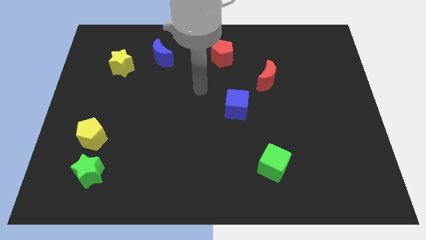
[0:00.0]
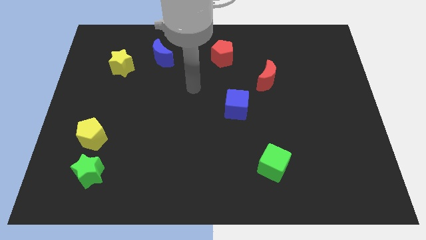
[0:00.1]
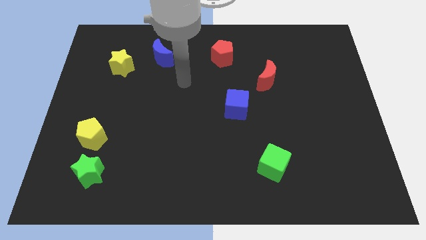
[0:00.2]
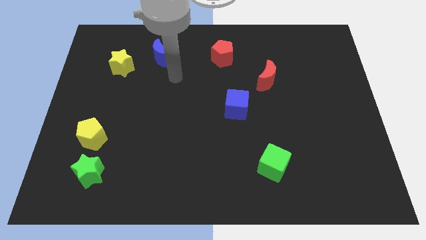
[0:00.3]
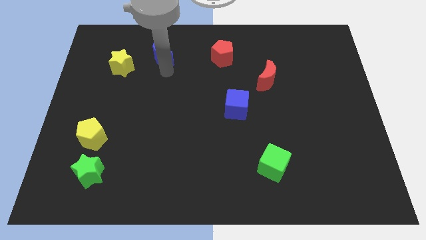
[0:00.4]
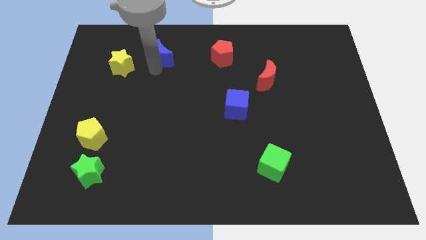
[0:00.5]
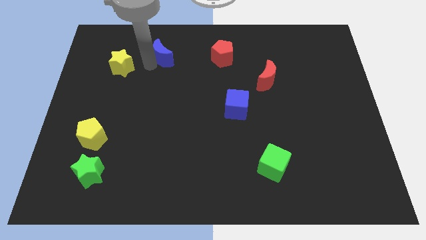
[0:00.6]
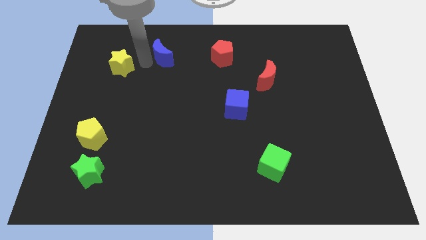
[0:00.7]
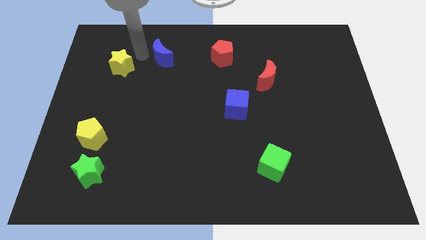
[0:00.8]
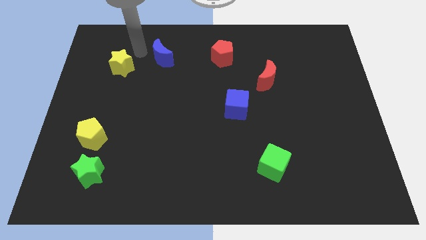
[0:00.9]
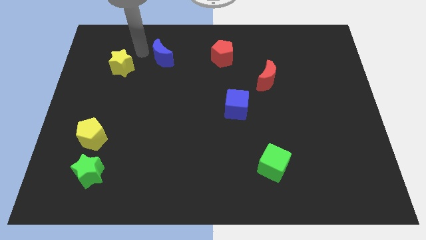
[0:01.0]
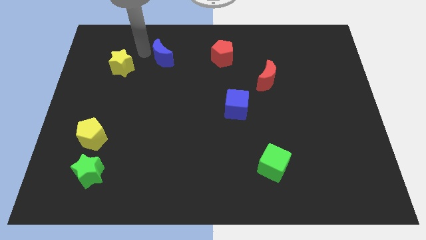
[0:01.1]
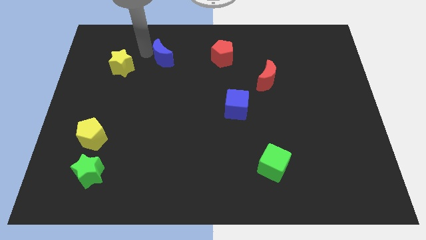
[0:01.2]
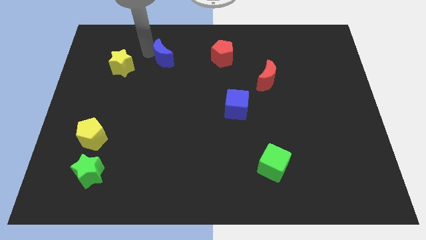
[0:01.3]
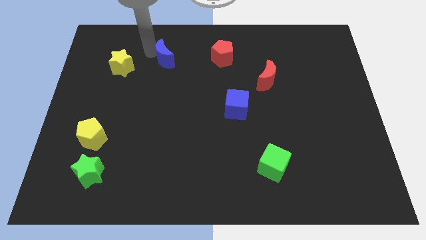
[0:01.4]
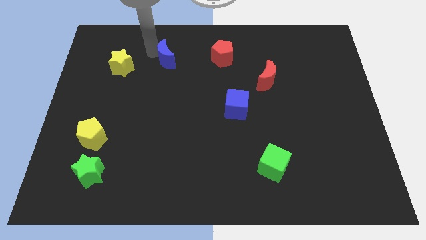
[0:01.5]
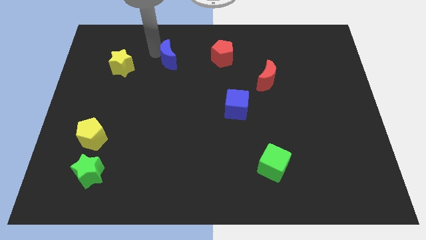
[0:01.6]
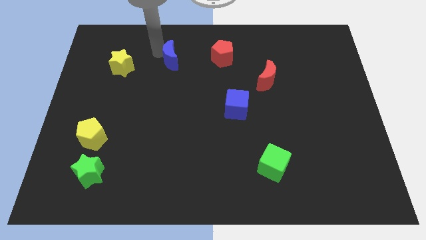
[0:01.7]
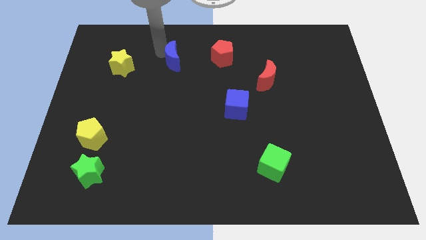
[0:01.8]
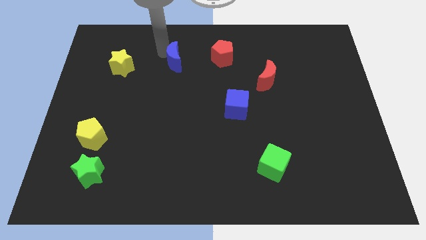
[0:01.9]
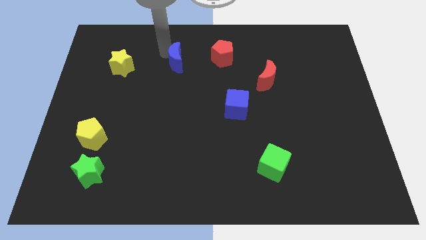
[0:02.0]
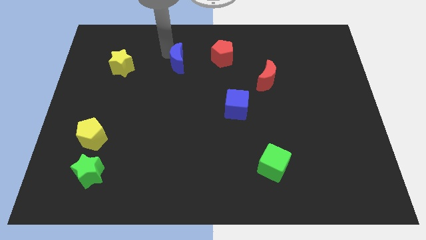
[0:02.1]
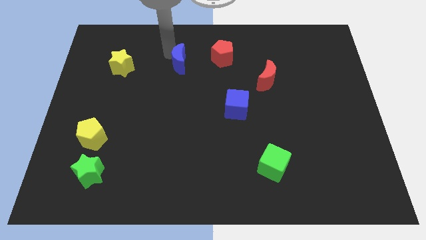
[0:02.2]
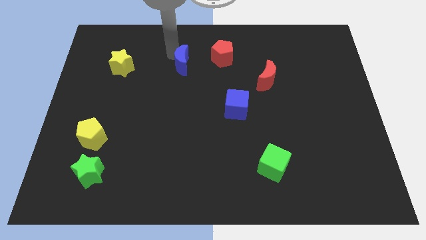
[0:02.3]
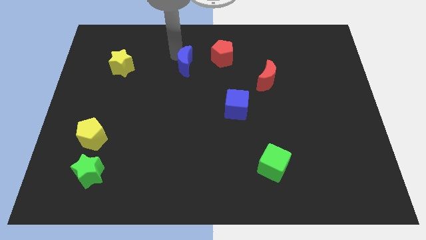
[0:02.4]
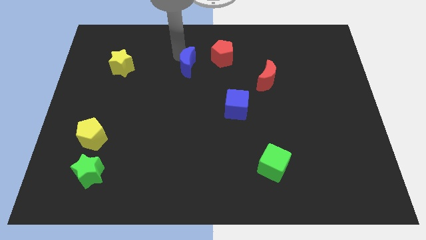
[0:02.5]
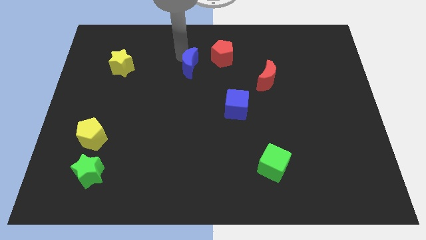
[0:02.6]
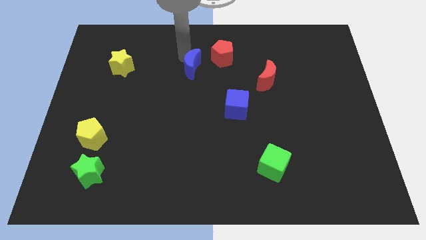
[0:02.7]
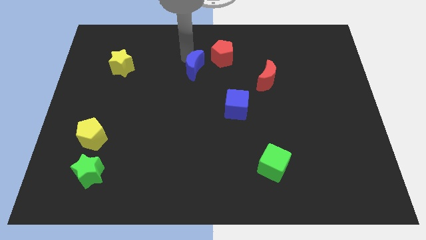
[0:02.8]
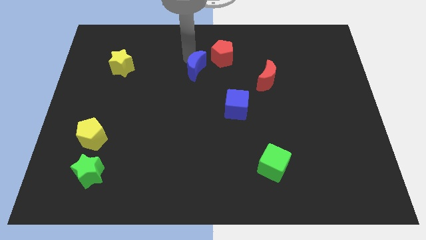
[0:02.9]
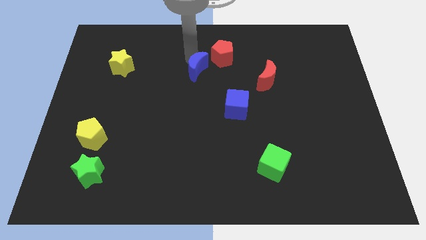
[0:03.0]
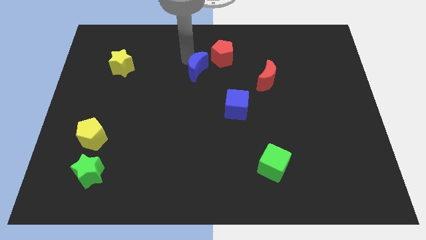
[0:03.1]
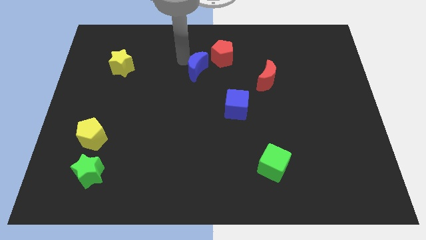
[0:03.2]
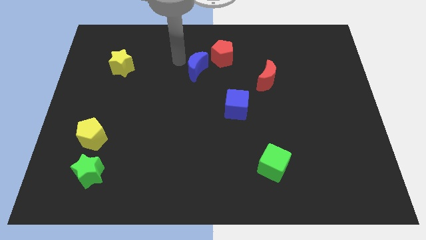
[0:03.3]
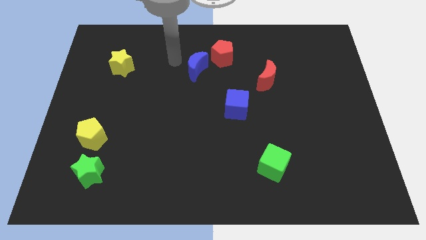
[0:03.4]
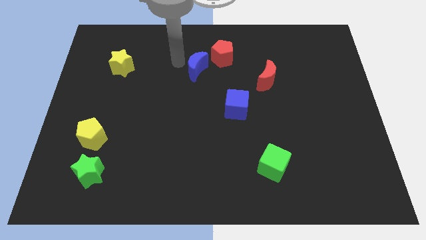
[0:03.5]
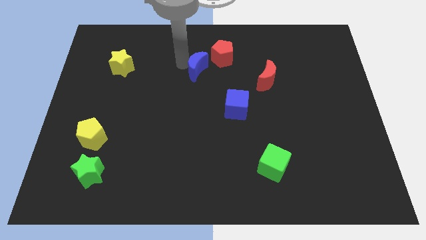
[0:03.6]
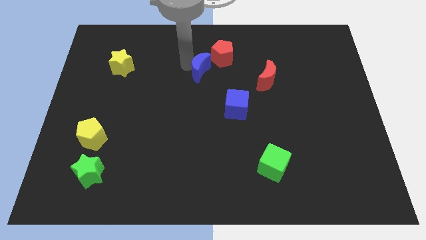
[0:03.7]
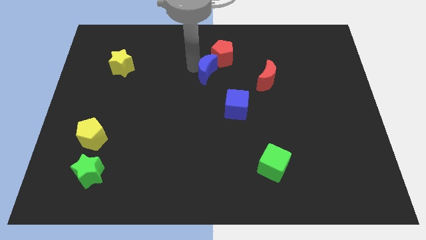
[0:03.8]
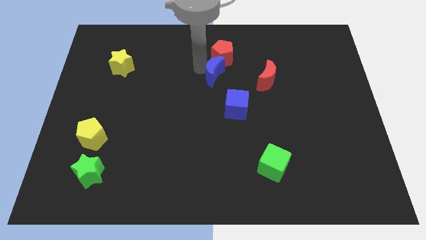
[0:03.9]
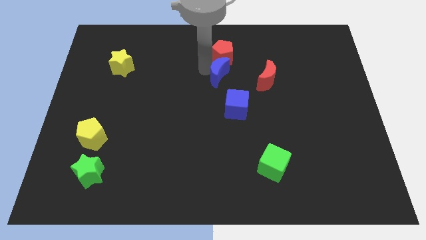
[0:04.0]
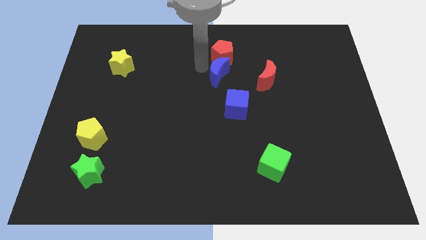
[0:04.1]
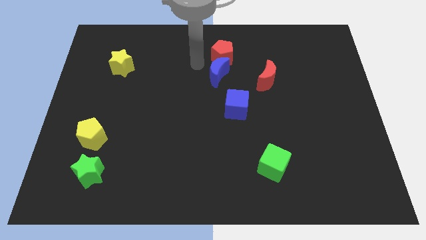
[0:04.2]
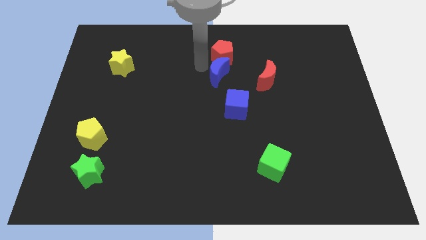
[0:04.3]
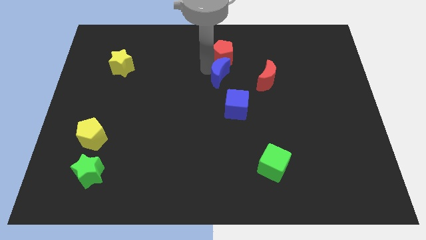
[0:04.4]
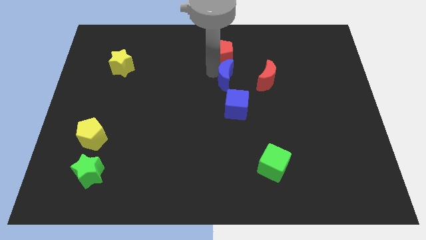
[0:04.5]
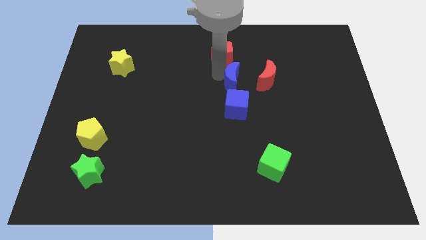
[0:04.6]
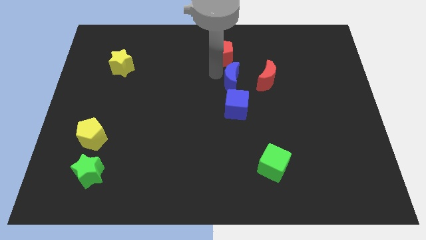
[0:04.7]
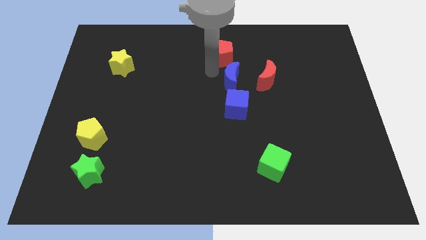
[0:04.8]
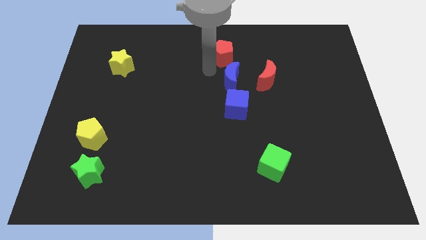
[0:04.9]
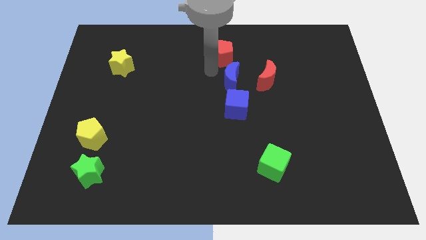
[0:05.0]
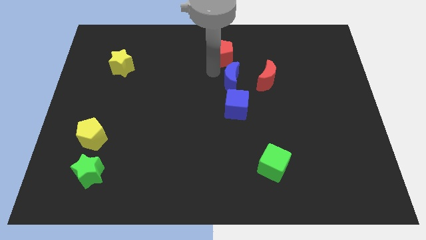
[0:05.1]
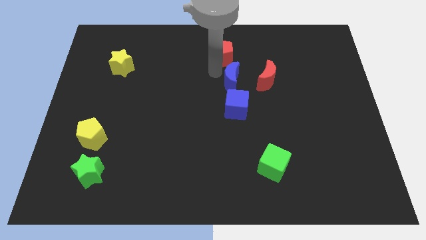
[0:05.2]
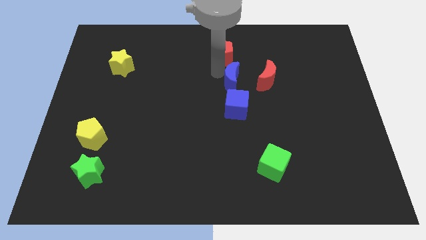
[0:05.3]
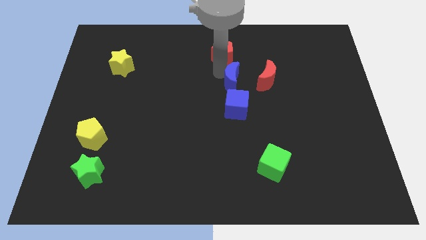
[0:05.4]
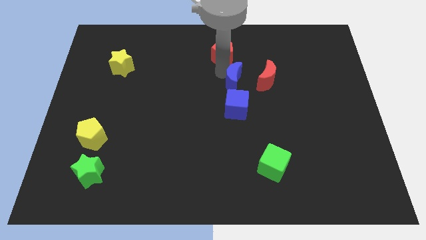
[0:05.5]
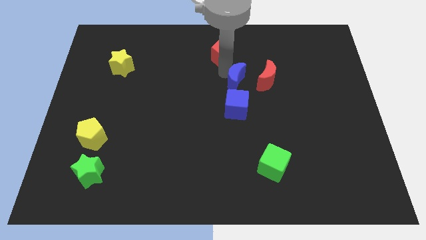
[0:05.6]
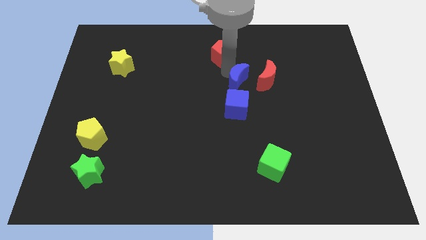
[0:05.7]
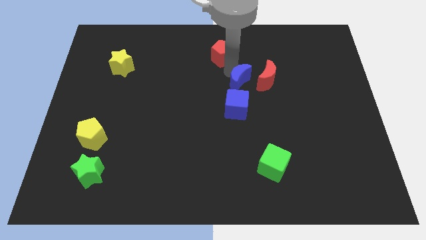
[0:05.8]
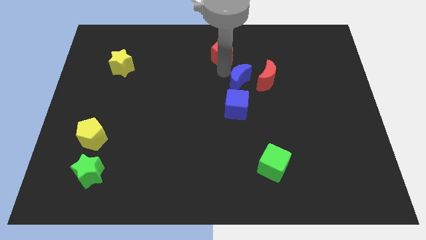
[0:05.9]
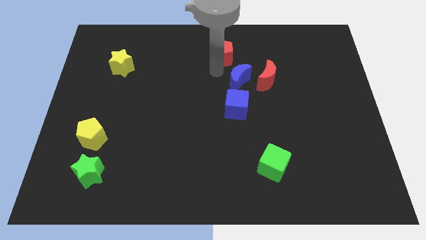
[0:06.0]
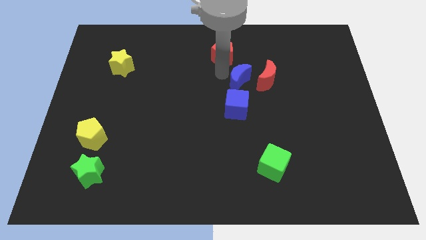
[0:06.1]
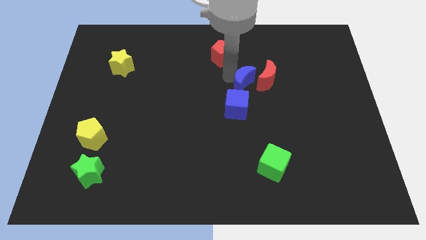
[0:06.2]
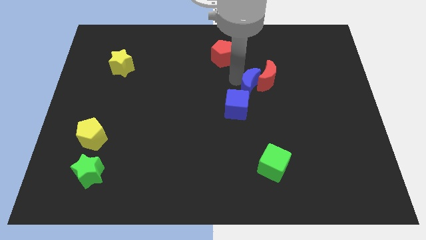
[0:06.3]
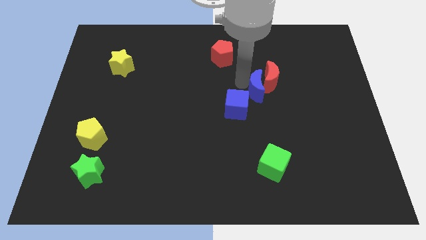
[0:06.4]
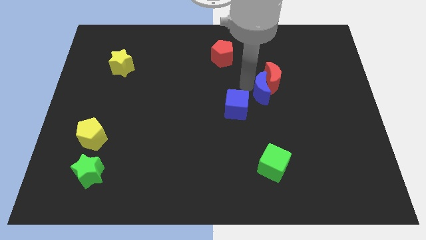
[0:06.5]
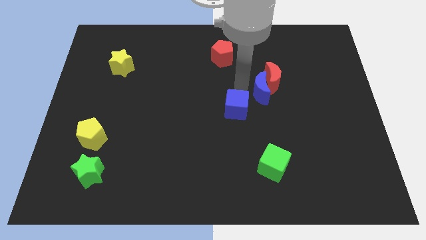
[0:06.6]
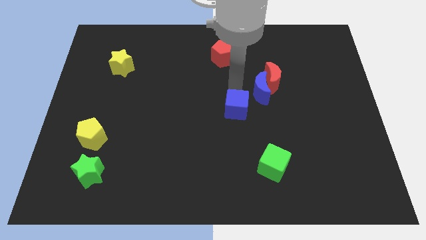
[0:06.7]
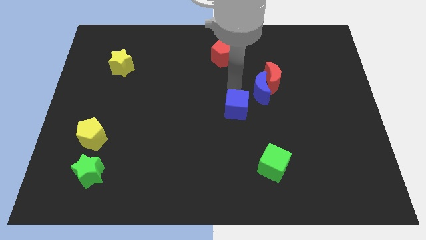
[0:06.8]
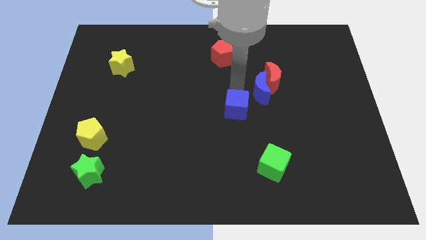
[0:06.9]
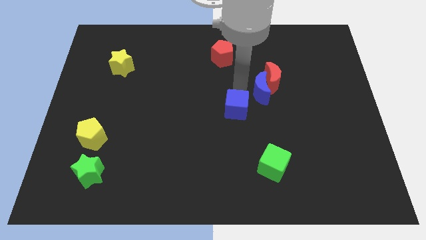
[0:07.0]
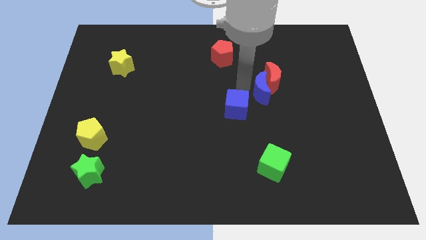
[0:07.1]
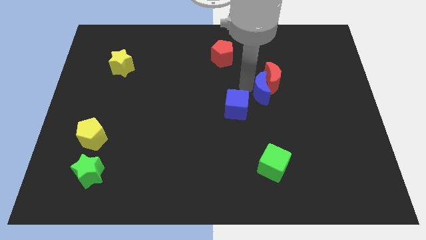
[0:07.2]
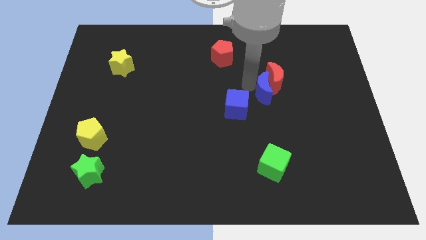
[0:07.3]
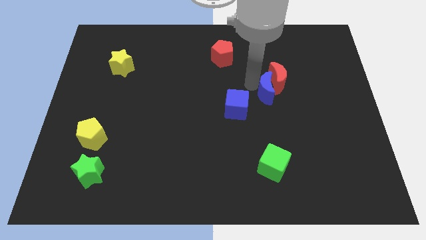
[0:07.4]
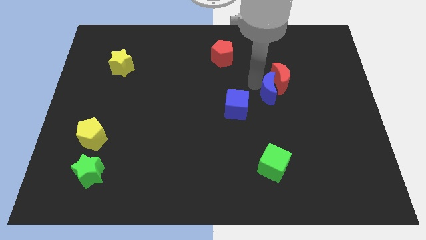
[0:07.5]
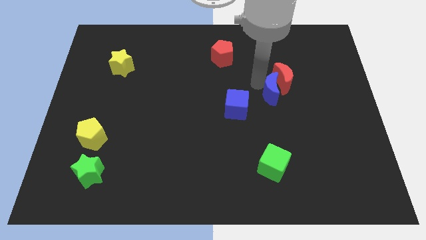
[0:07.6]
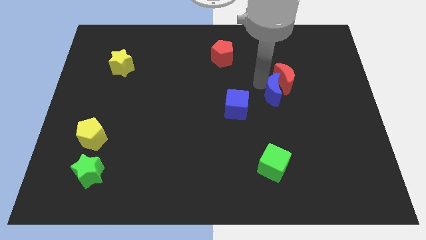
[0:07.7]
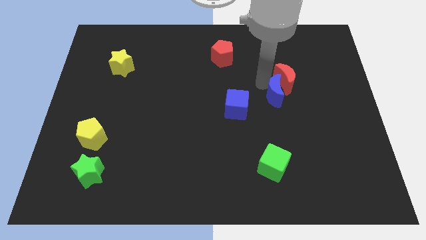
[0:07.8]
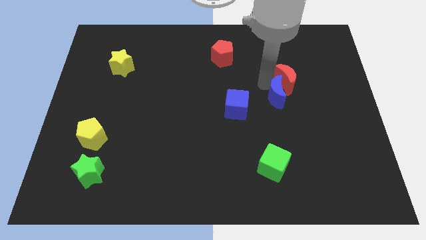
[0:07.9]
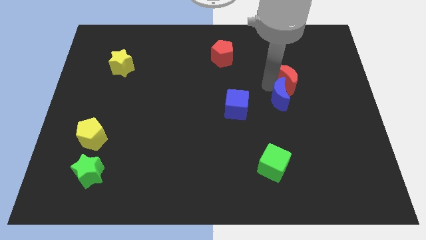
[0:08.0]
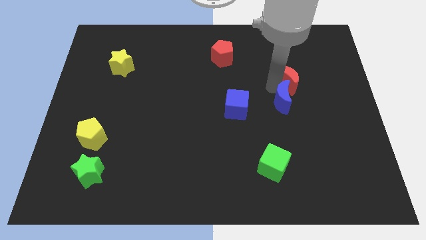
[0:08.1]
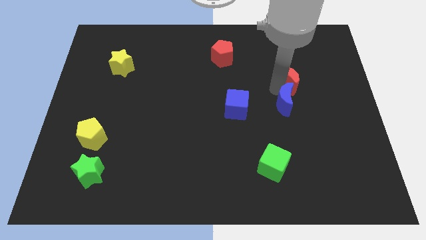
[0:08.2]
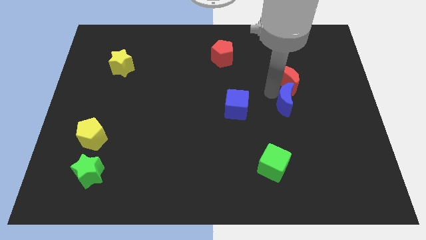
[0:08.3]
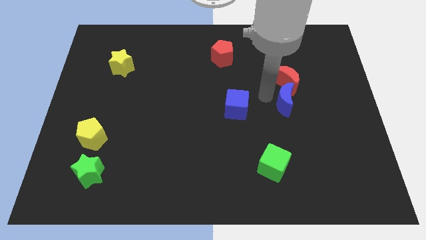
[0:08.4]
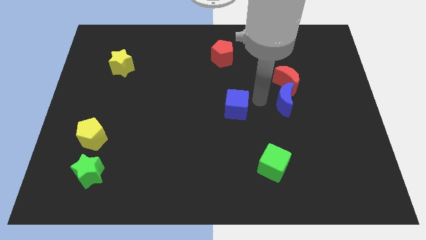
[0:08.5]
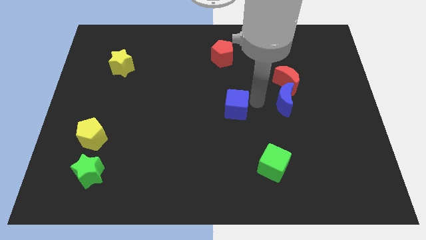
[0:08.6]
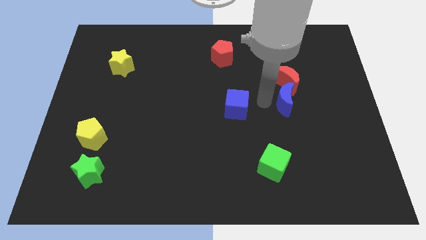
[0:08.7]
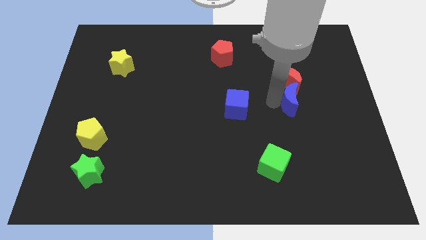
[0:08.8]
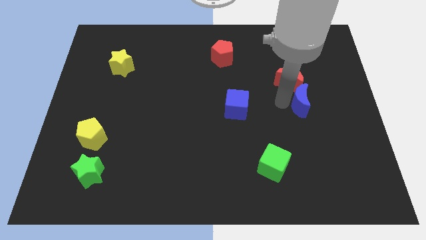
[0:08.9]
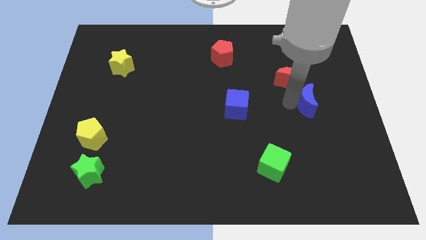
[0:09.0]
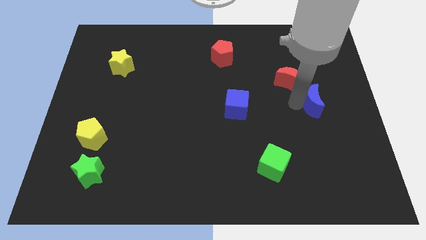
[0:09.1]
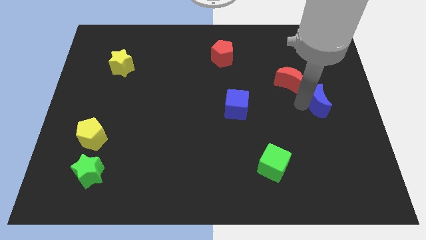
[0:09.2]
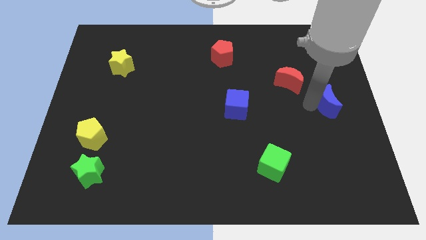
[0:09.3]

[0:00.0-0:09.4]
move the blue moon to the right side of the board
